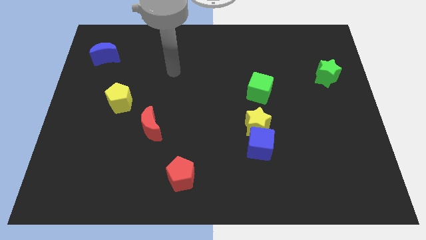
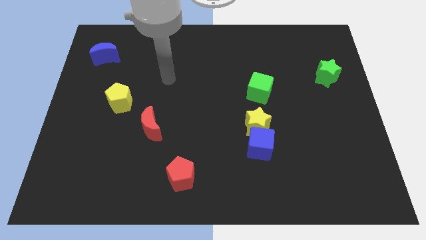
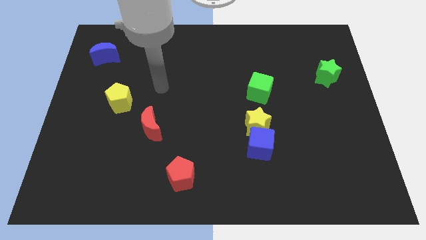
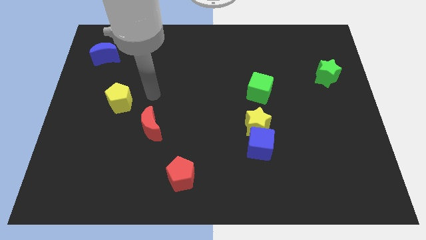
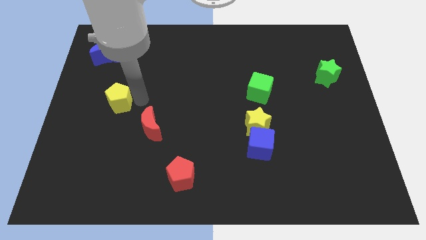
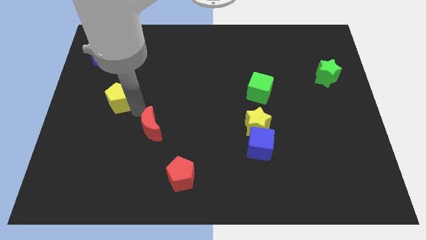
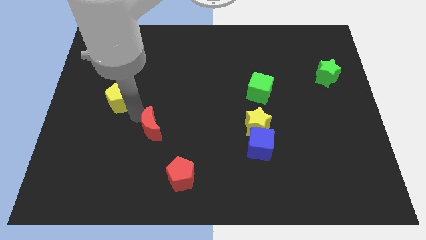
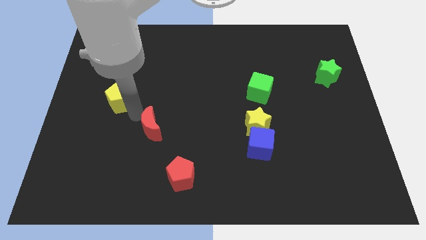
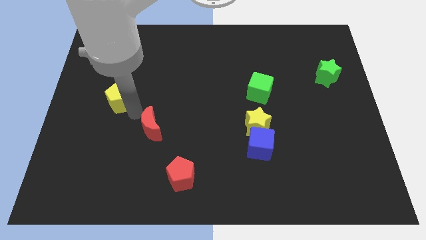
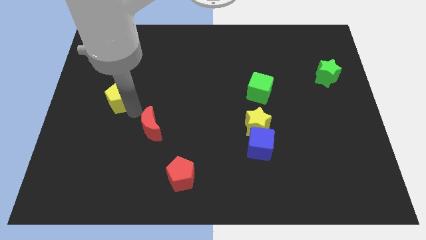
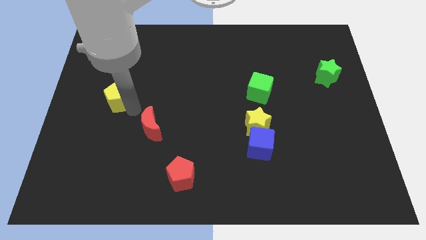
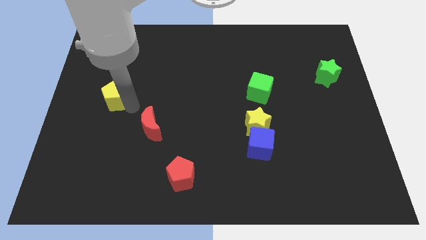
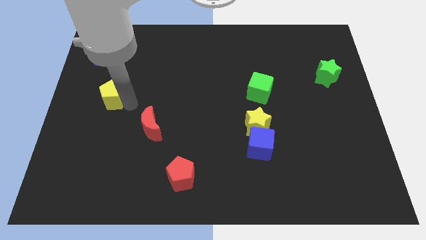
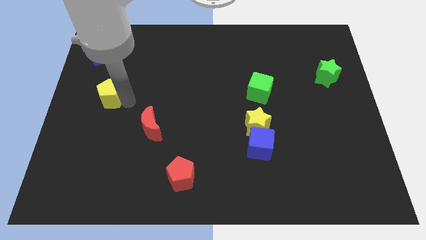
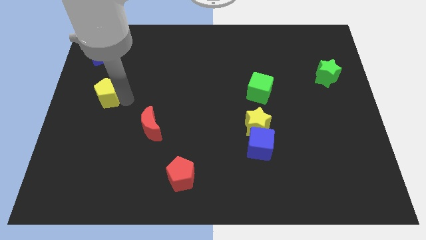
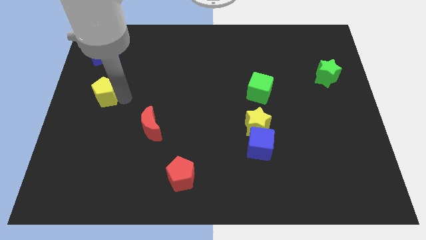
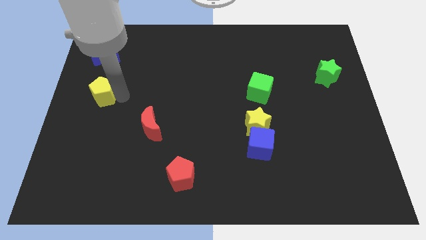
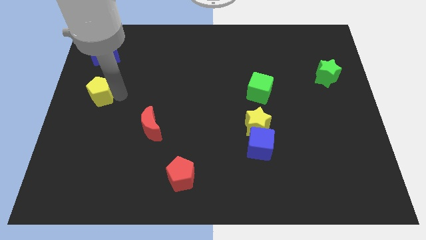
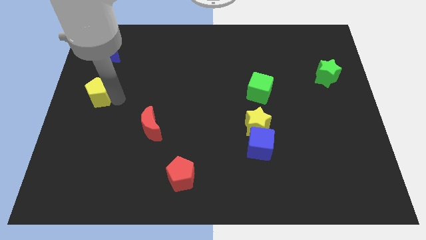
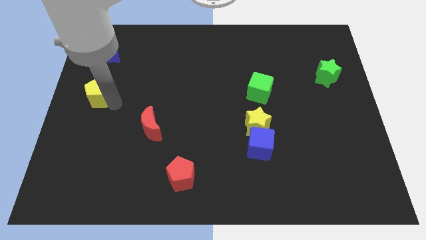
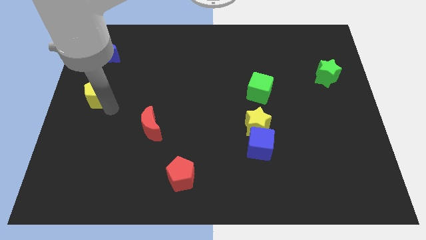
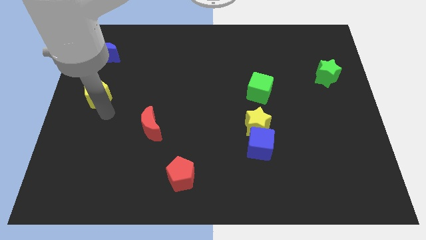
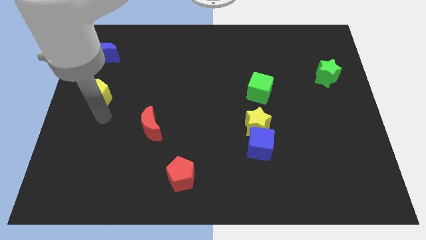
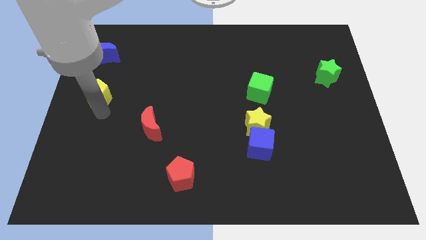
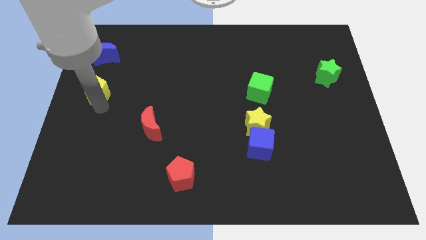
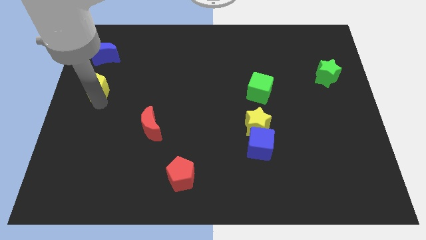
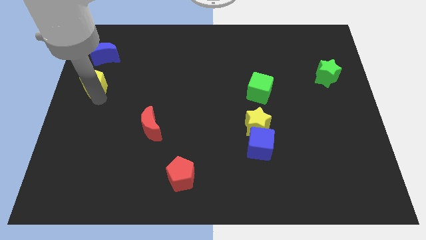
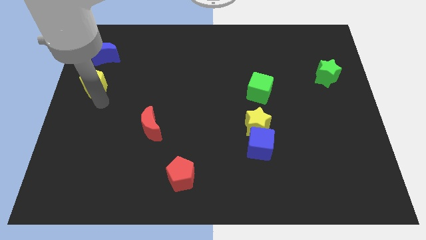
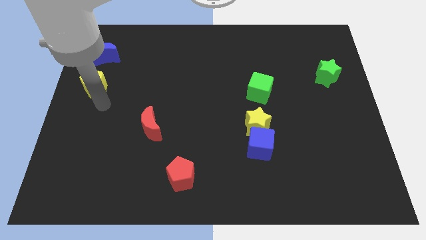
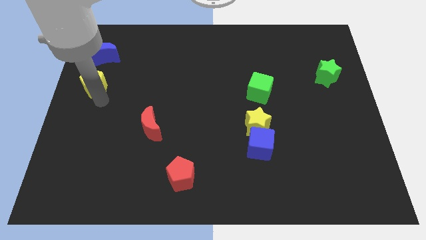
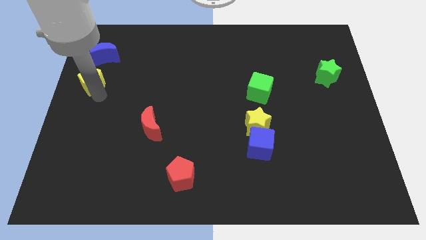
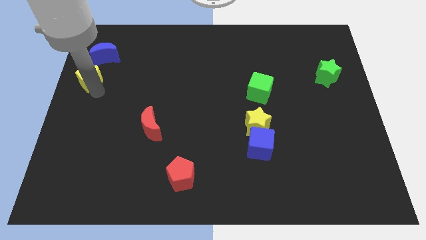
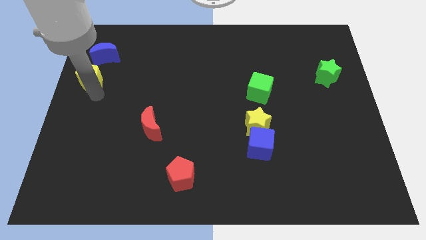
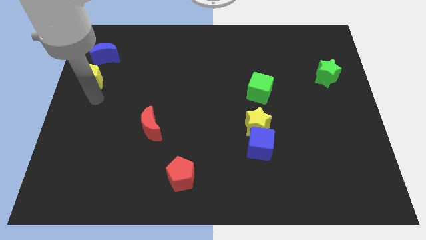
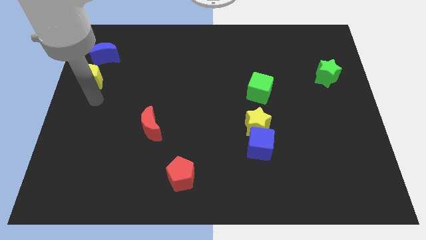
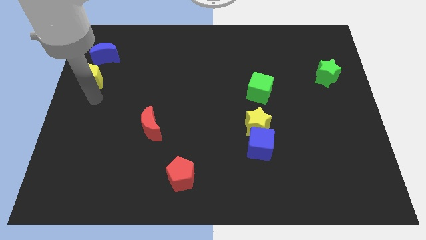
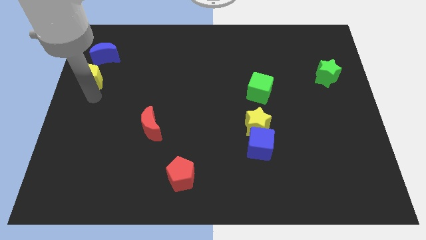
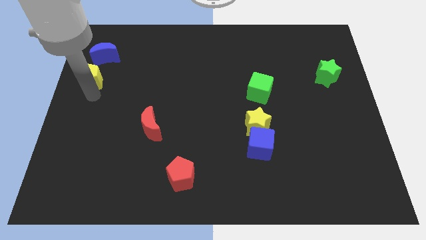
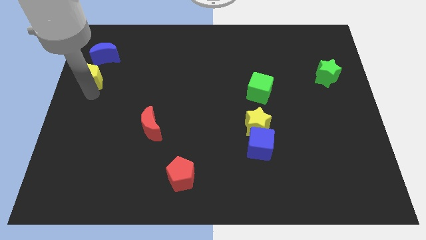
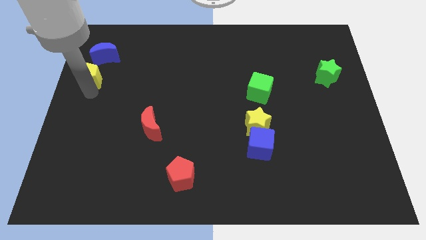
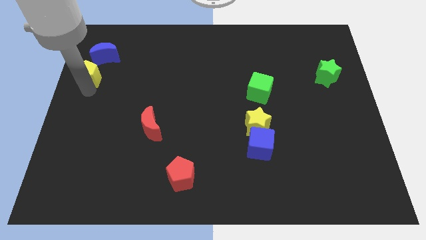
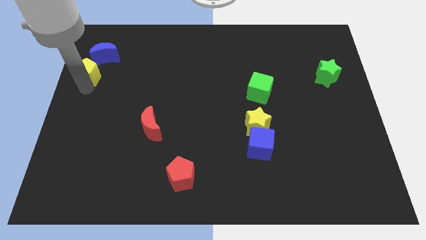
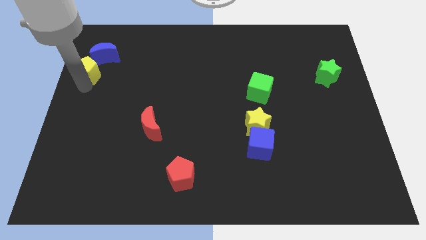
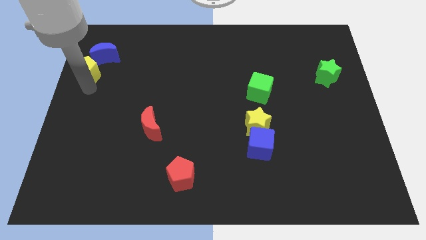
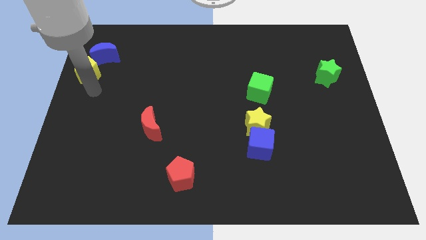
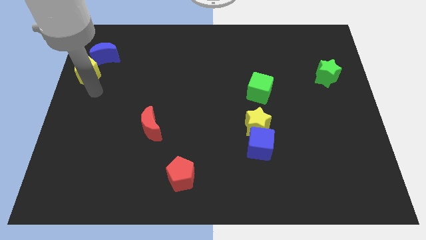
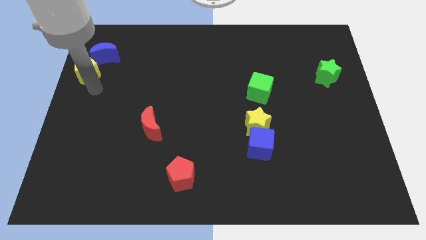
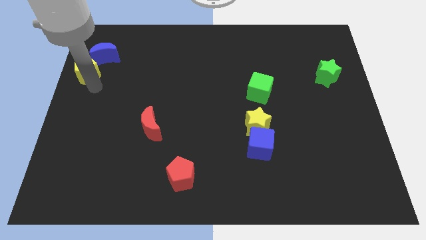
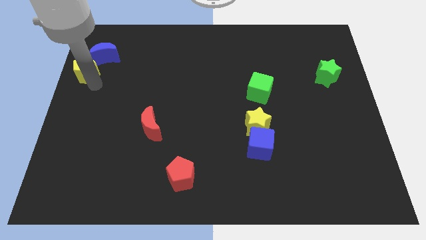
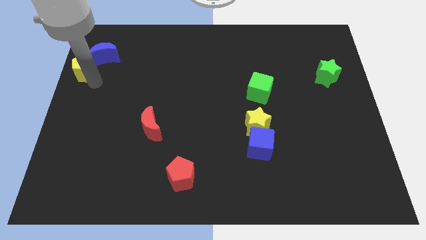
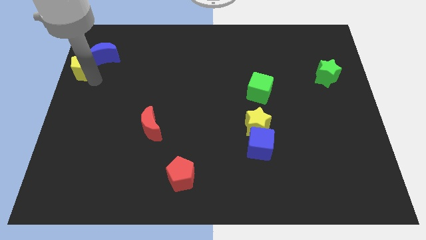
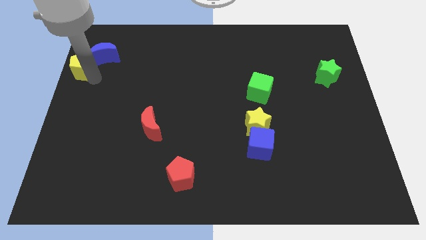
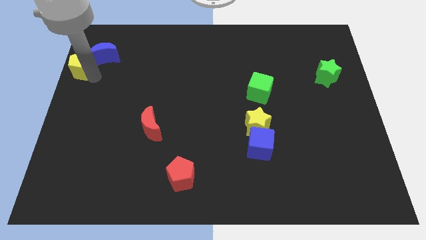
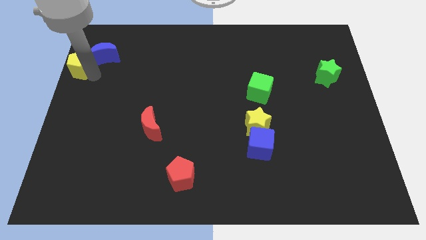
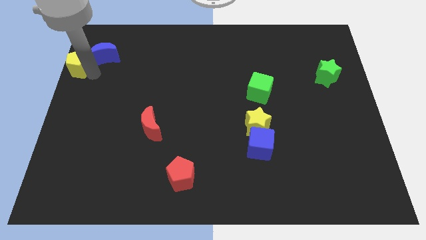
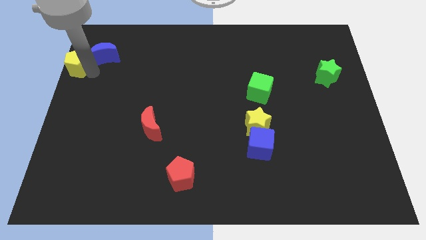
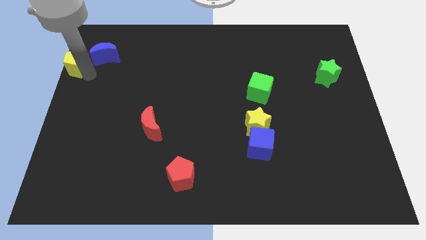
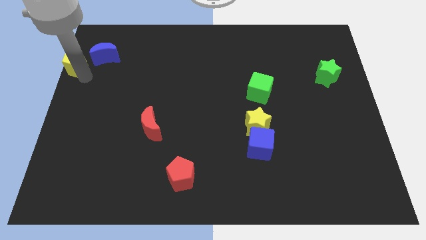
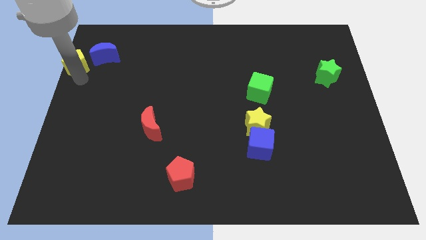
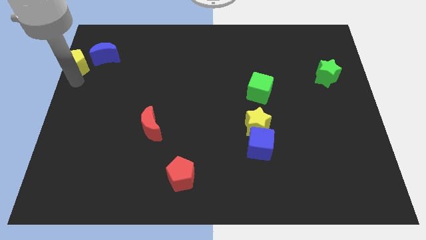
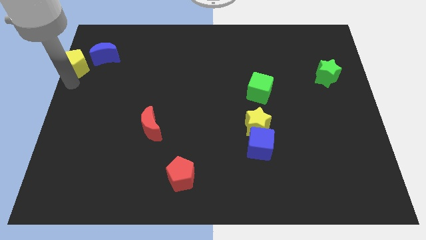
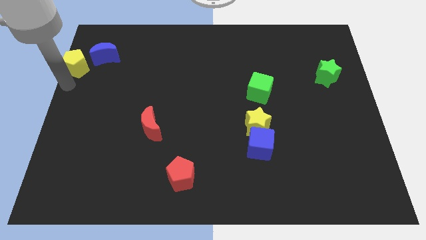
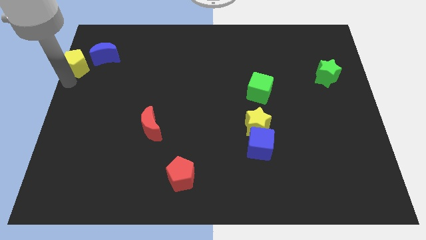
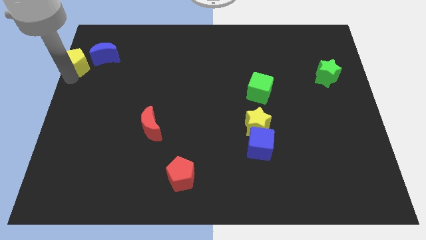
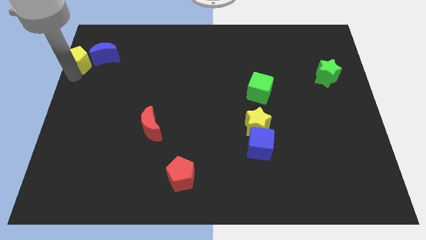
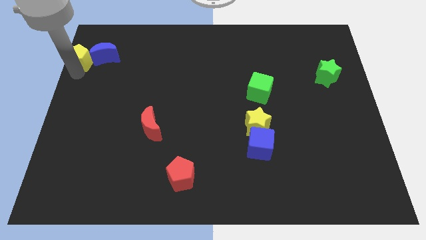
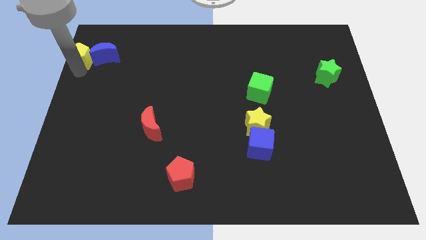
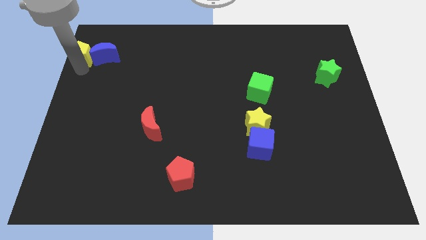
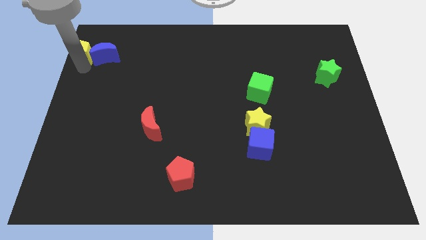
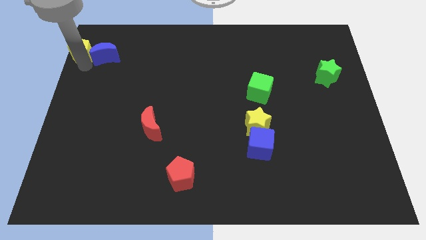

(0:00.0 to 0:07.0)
move the yellow pentagon to the upper left corner
